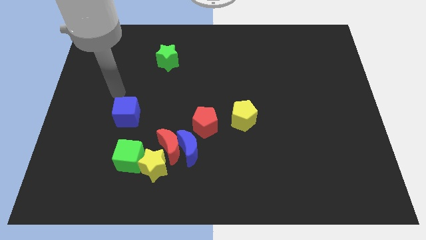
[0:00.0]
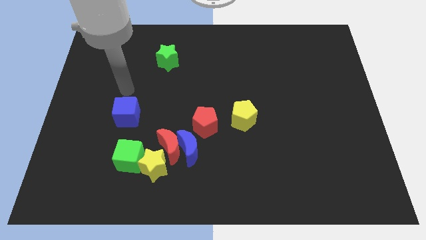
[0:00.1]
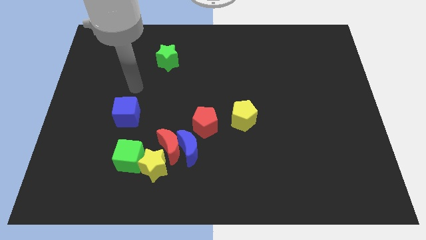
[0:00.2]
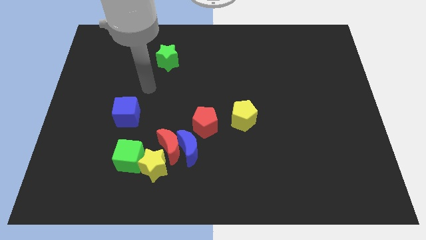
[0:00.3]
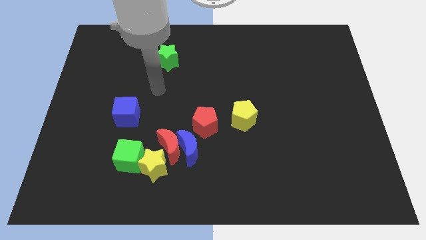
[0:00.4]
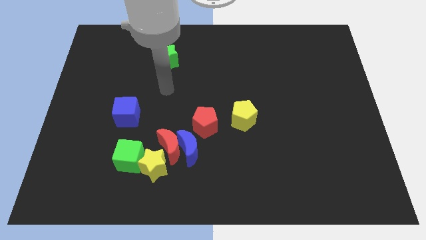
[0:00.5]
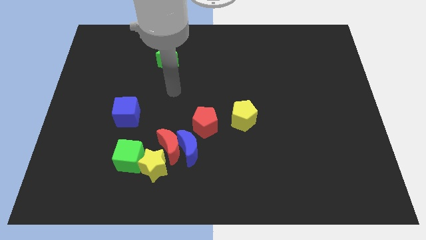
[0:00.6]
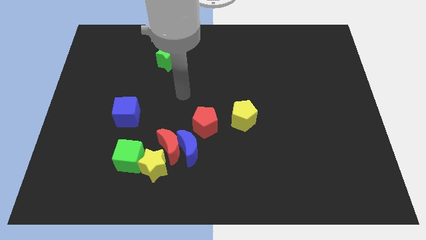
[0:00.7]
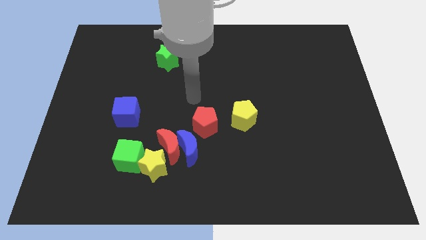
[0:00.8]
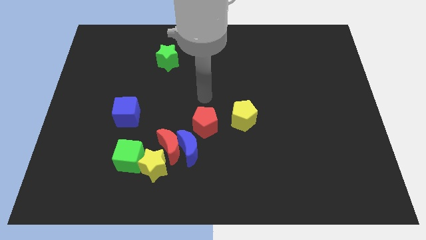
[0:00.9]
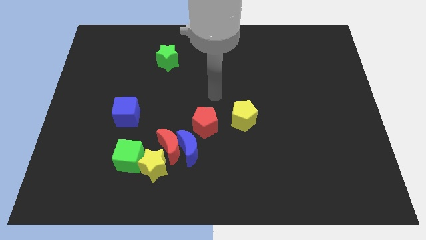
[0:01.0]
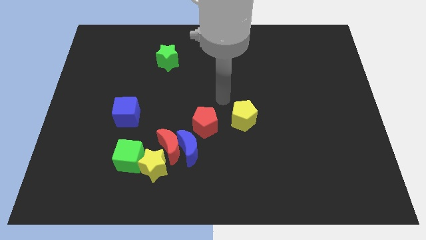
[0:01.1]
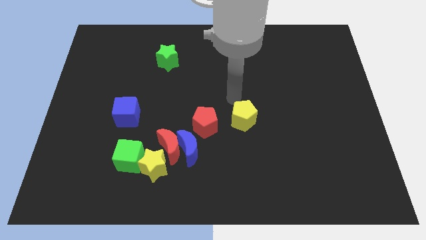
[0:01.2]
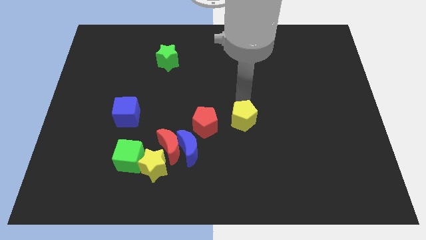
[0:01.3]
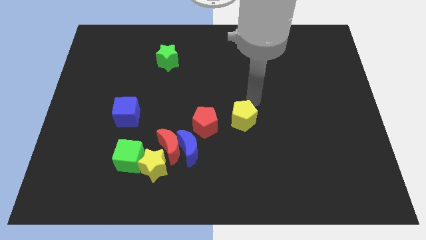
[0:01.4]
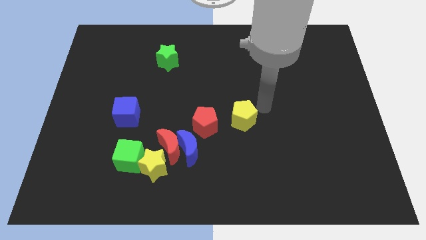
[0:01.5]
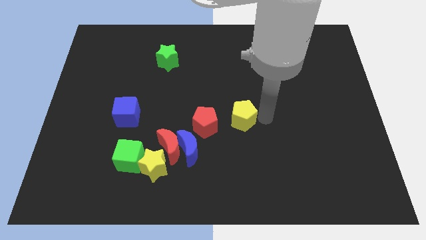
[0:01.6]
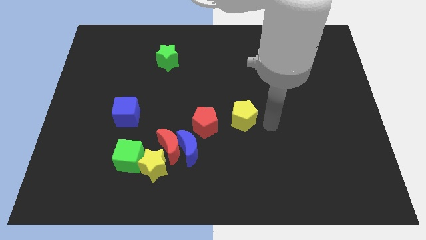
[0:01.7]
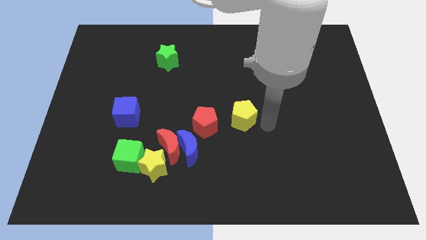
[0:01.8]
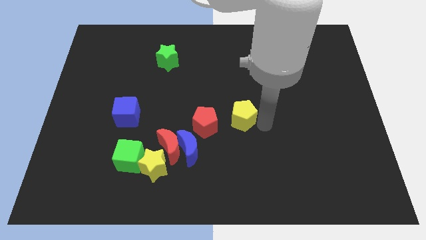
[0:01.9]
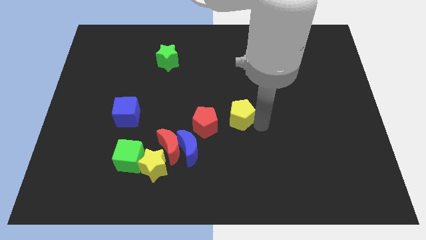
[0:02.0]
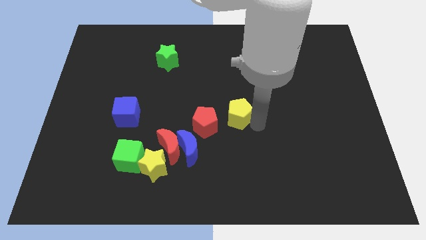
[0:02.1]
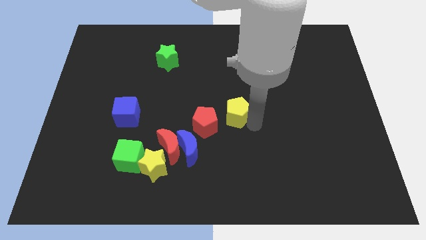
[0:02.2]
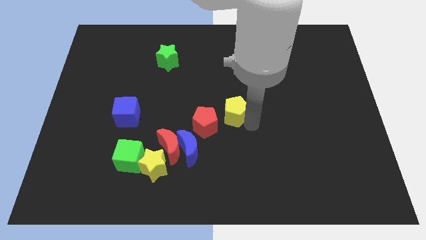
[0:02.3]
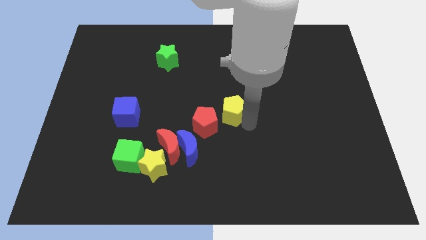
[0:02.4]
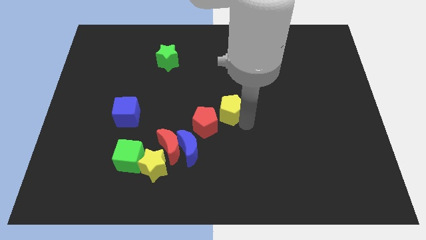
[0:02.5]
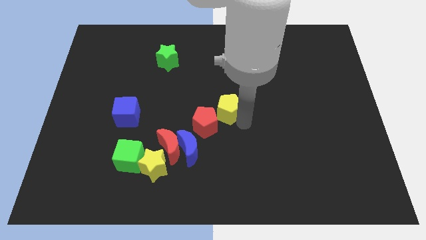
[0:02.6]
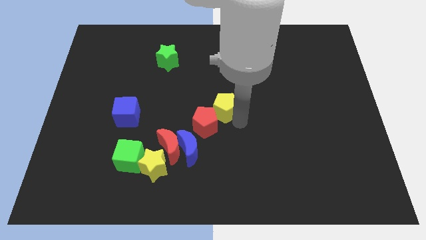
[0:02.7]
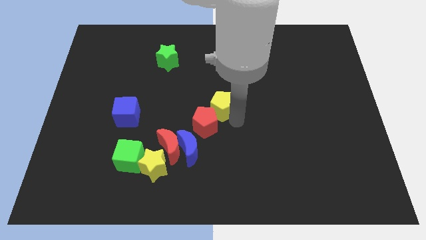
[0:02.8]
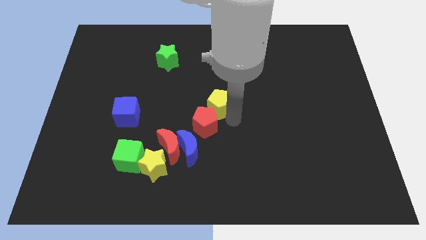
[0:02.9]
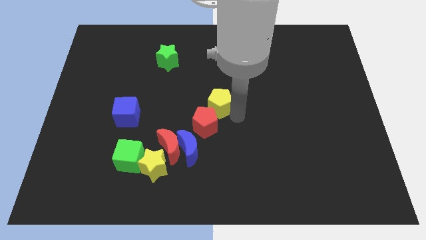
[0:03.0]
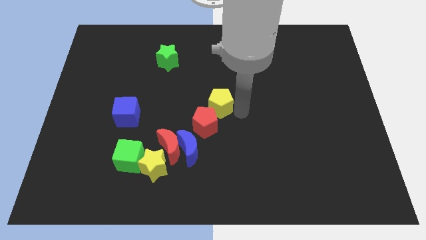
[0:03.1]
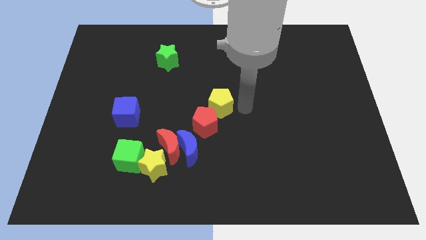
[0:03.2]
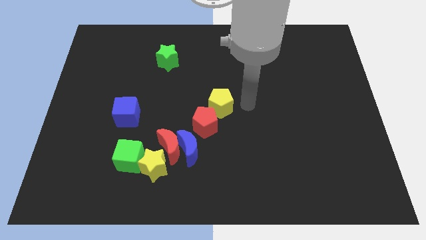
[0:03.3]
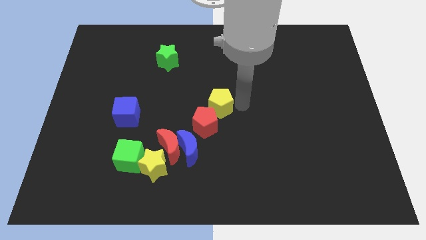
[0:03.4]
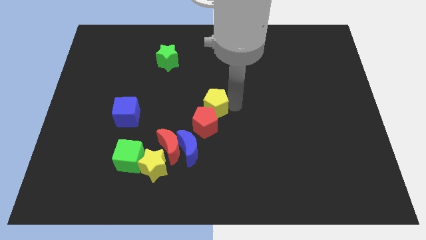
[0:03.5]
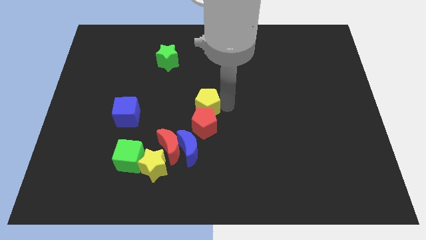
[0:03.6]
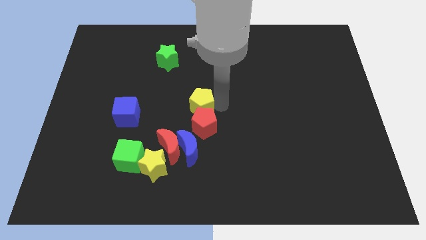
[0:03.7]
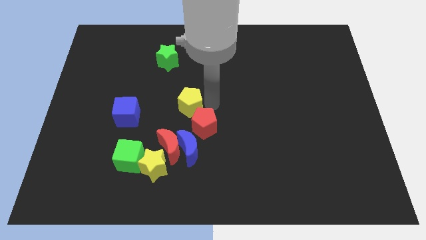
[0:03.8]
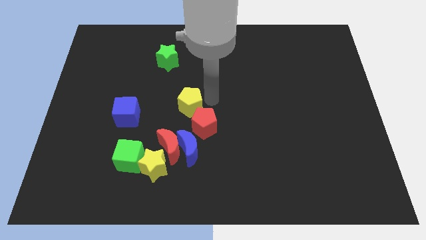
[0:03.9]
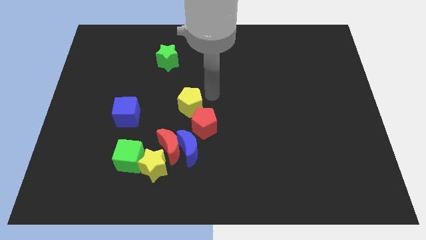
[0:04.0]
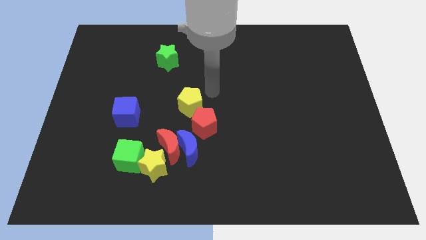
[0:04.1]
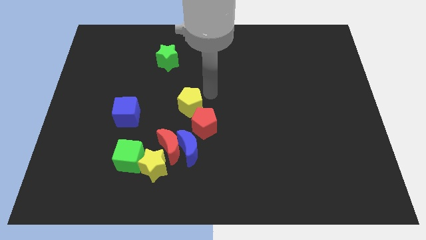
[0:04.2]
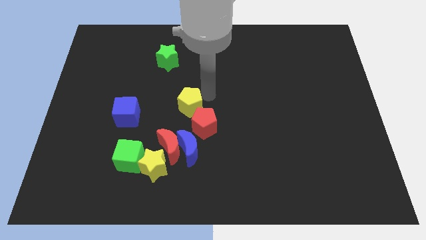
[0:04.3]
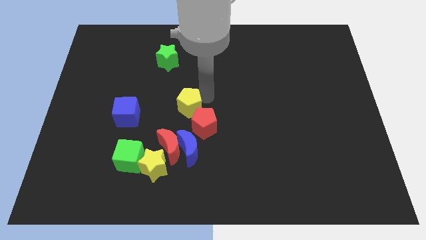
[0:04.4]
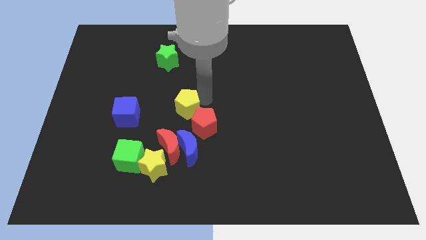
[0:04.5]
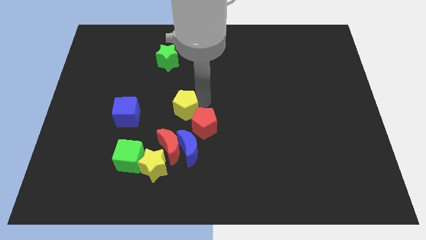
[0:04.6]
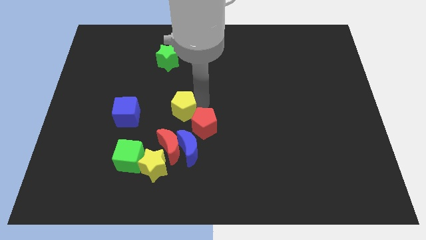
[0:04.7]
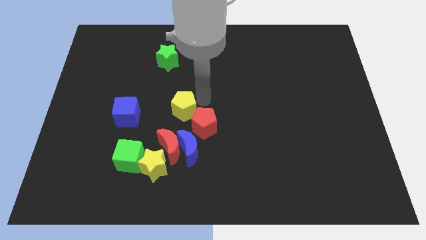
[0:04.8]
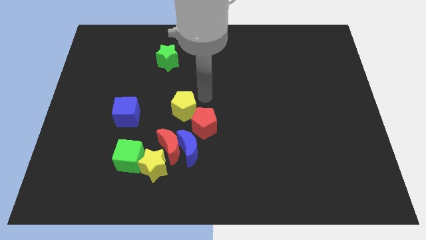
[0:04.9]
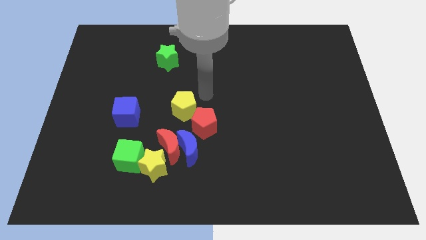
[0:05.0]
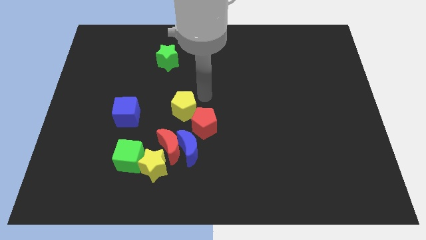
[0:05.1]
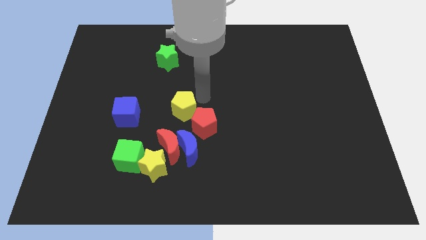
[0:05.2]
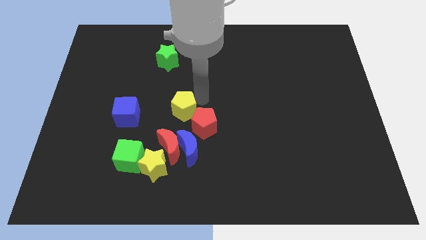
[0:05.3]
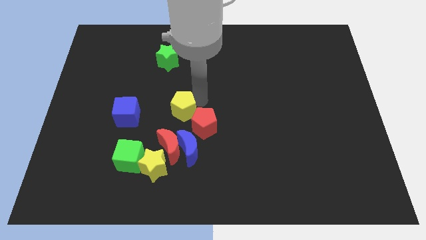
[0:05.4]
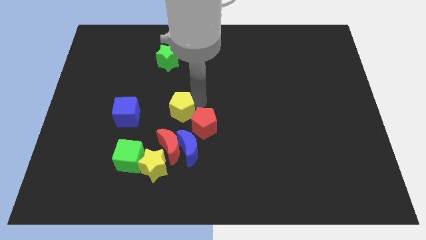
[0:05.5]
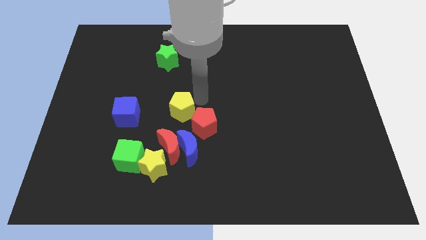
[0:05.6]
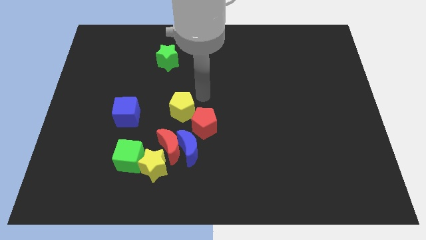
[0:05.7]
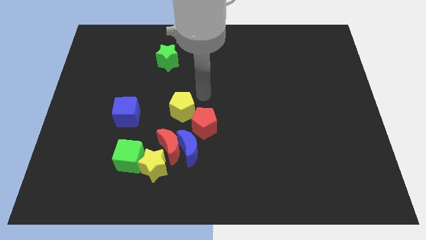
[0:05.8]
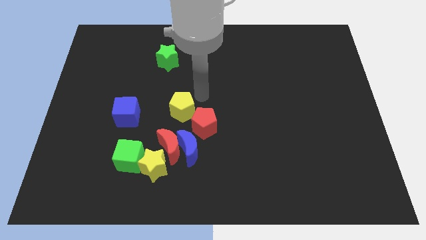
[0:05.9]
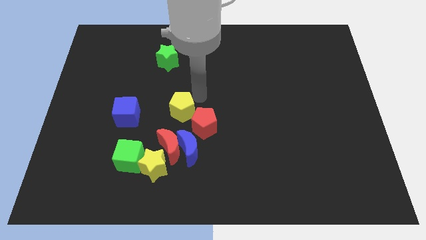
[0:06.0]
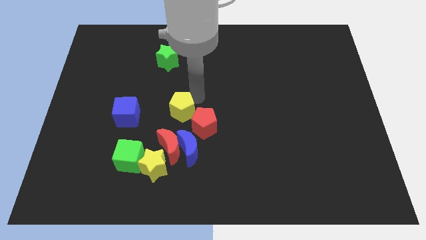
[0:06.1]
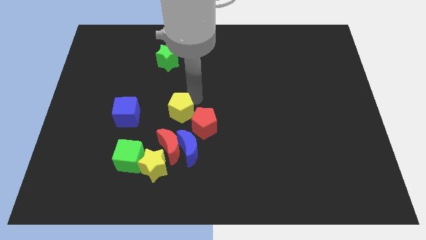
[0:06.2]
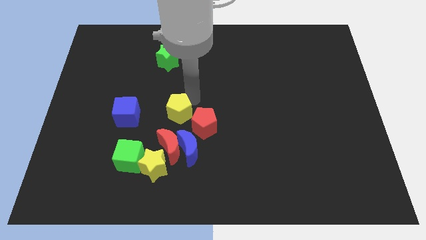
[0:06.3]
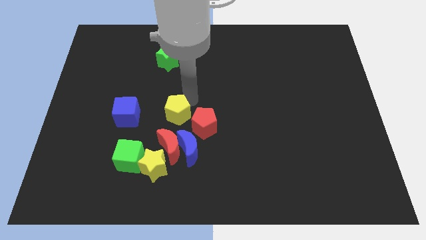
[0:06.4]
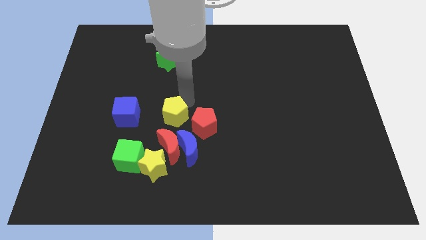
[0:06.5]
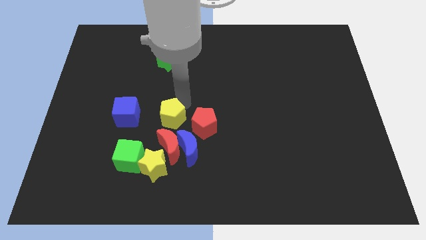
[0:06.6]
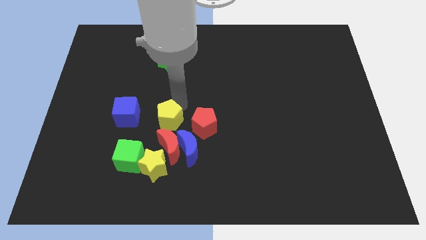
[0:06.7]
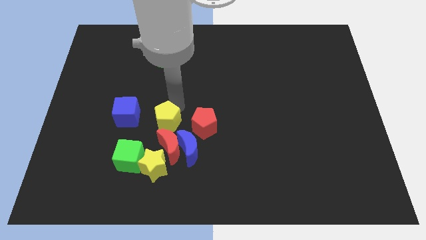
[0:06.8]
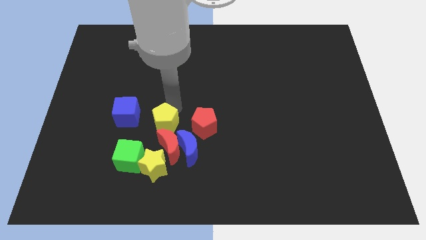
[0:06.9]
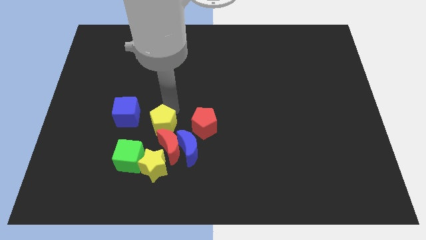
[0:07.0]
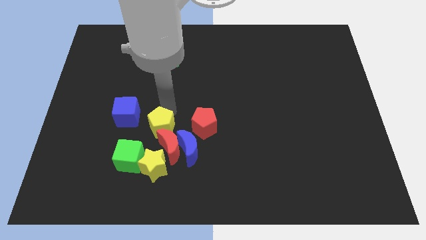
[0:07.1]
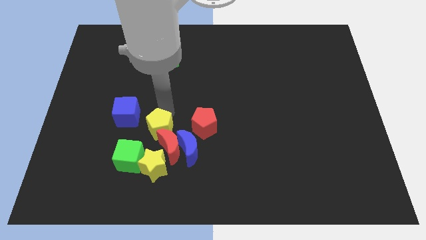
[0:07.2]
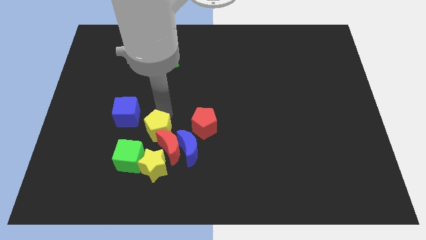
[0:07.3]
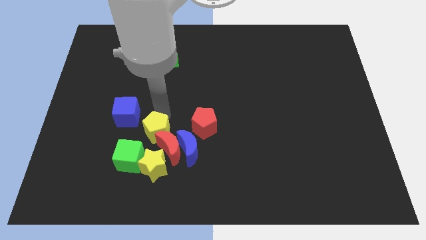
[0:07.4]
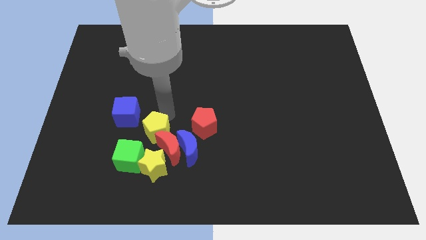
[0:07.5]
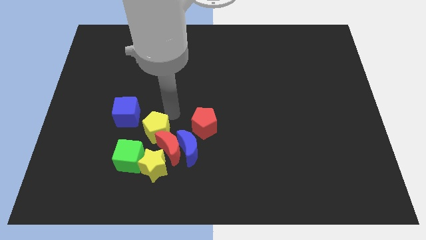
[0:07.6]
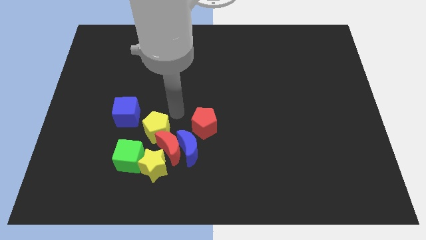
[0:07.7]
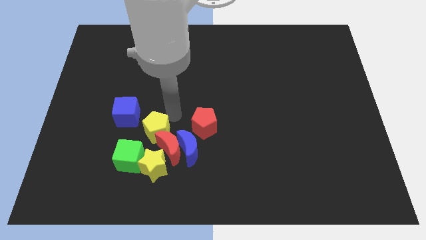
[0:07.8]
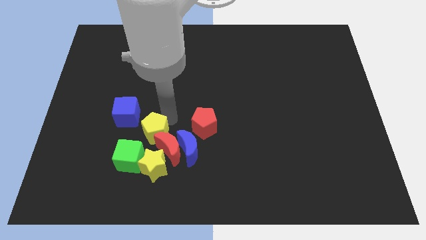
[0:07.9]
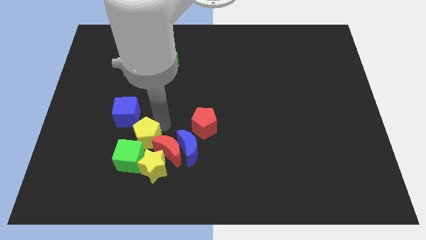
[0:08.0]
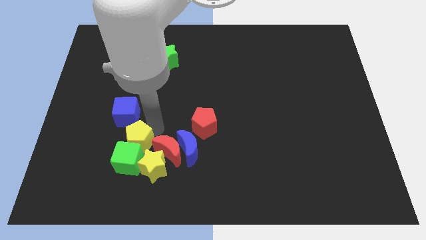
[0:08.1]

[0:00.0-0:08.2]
push the yellow pentagon to the green cube
